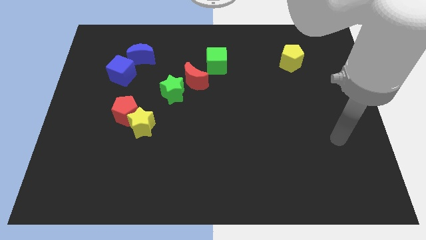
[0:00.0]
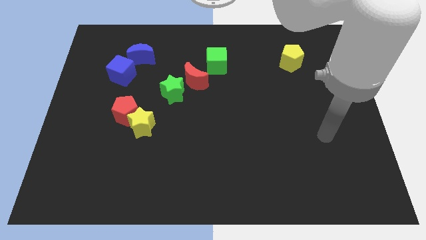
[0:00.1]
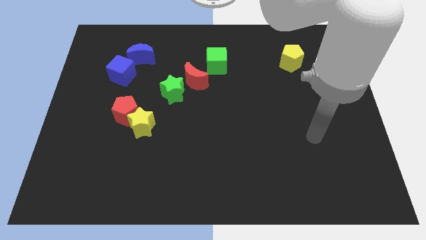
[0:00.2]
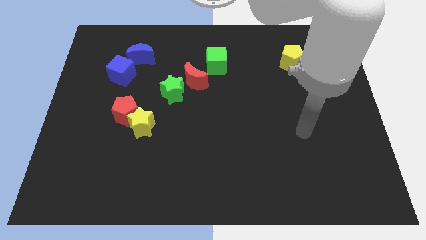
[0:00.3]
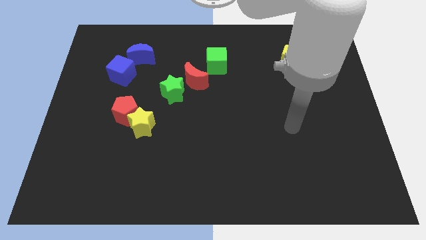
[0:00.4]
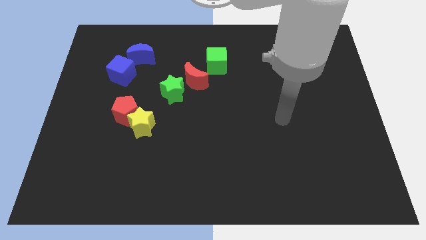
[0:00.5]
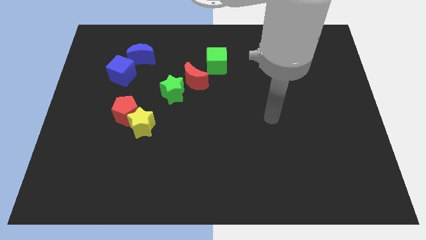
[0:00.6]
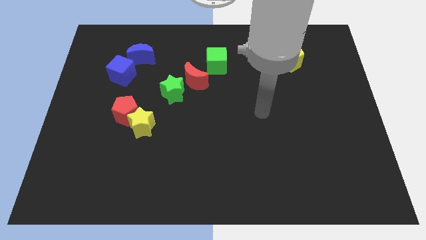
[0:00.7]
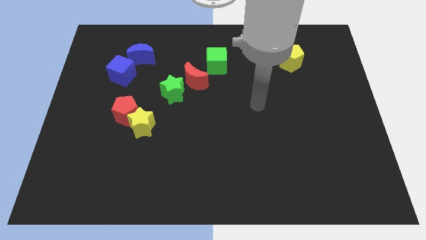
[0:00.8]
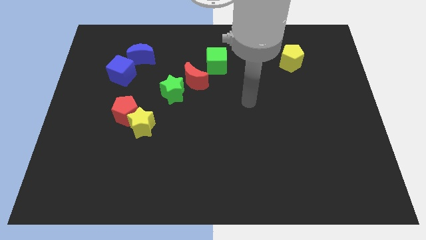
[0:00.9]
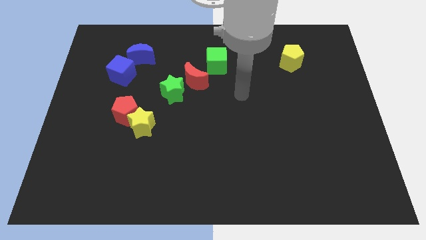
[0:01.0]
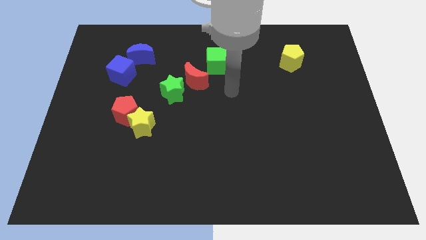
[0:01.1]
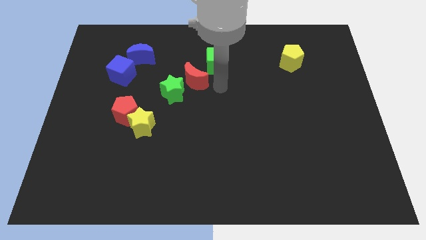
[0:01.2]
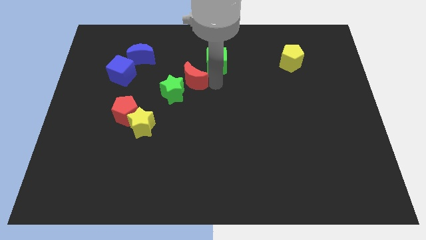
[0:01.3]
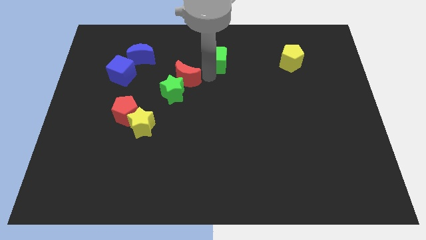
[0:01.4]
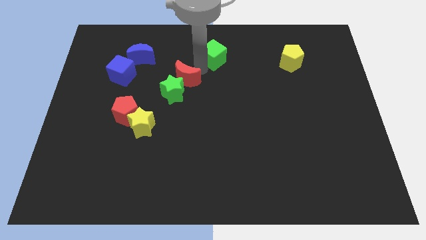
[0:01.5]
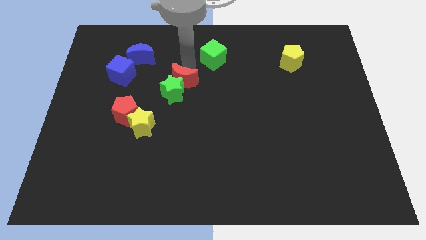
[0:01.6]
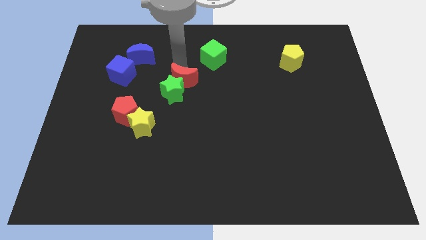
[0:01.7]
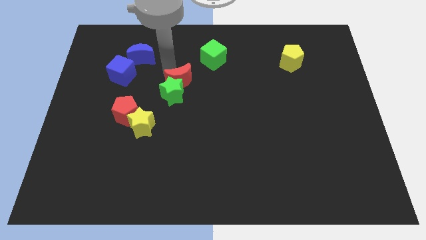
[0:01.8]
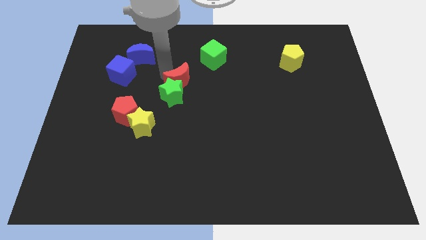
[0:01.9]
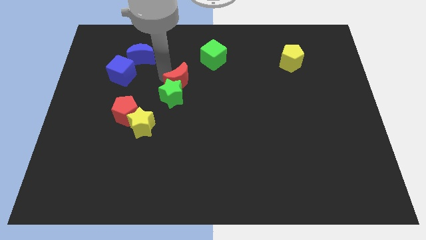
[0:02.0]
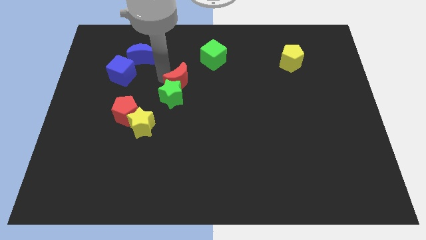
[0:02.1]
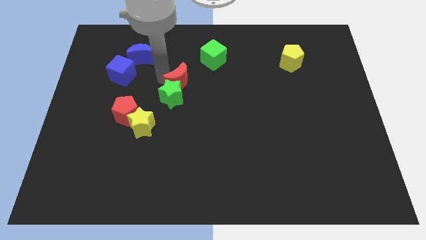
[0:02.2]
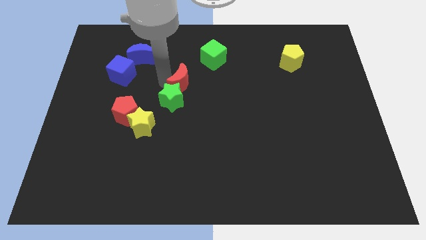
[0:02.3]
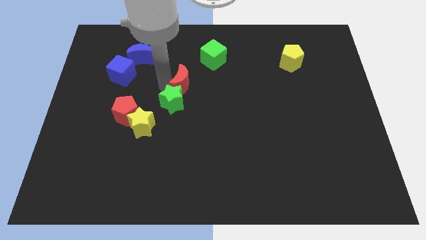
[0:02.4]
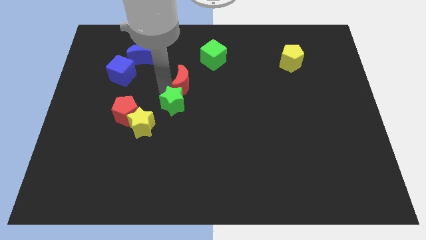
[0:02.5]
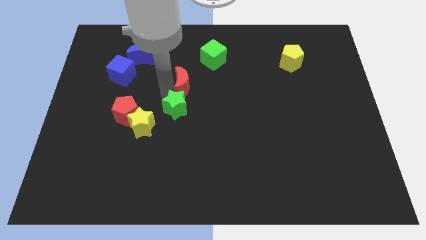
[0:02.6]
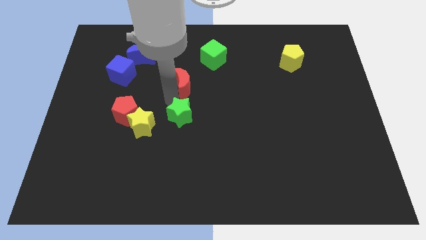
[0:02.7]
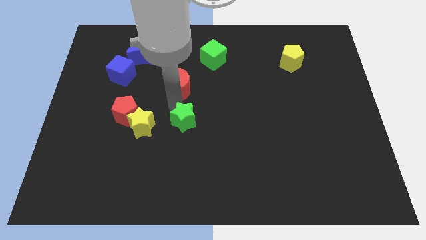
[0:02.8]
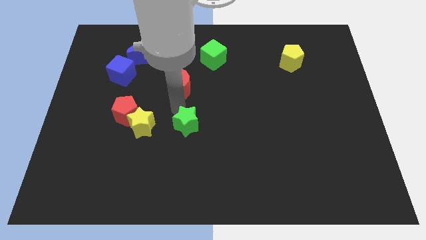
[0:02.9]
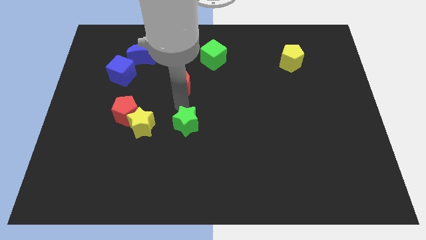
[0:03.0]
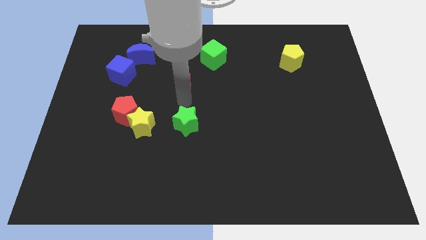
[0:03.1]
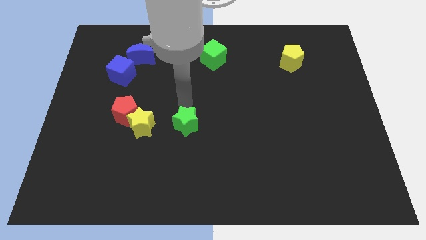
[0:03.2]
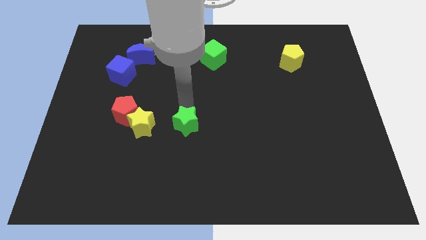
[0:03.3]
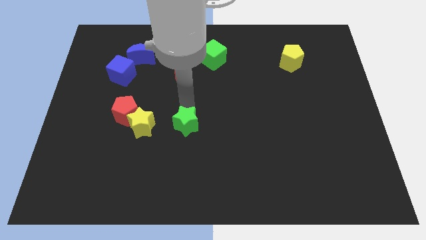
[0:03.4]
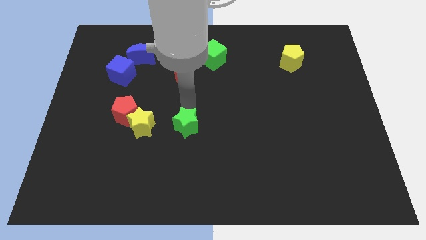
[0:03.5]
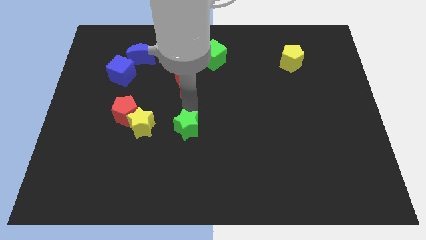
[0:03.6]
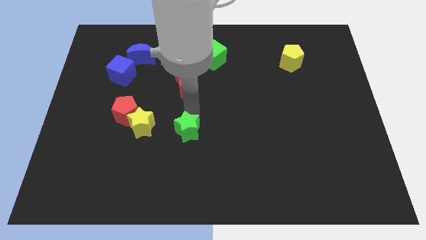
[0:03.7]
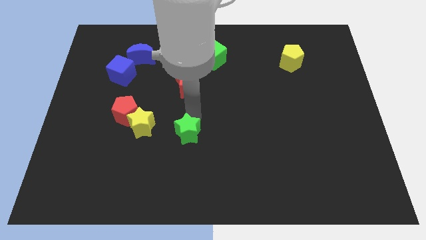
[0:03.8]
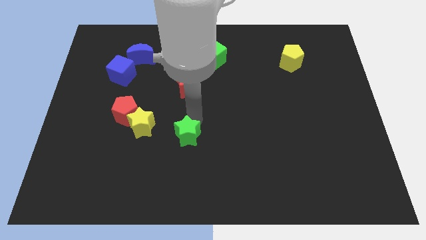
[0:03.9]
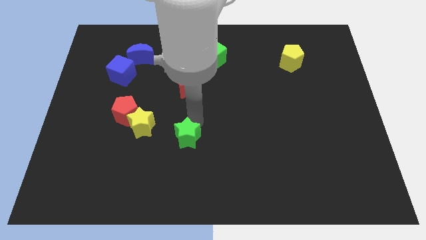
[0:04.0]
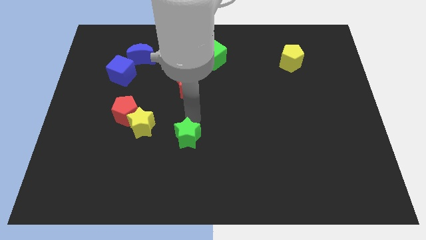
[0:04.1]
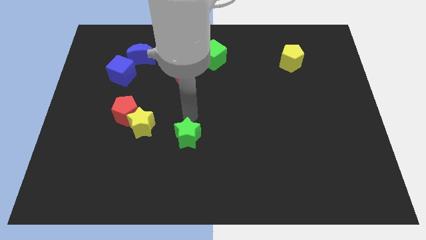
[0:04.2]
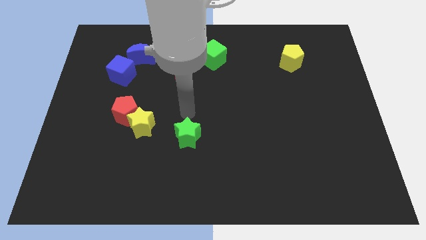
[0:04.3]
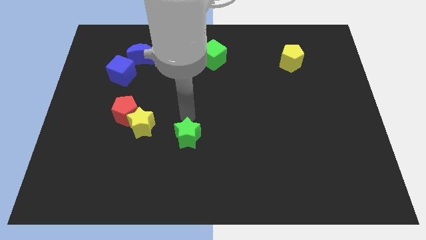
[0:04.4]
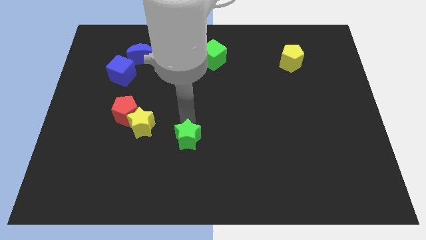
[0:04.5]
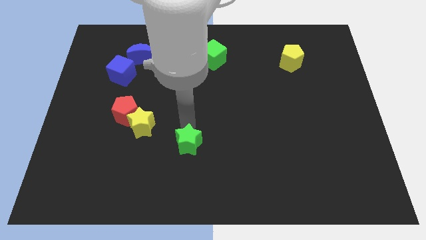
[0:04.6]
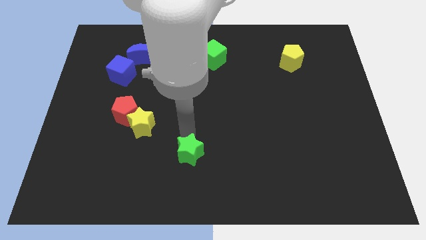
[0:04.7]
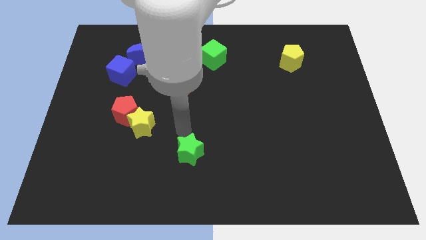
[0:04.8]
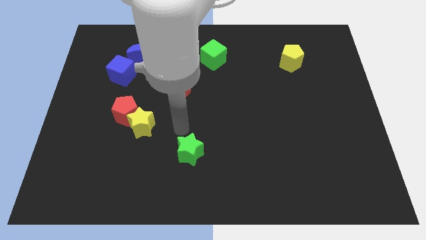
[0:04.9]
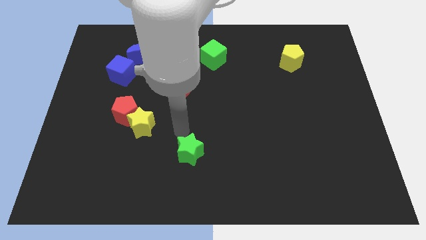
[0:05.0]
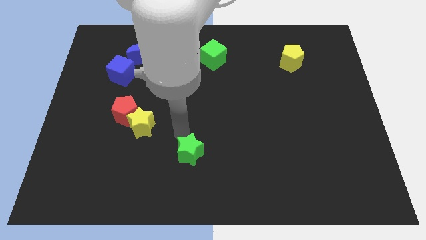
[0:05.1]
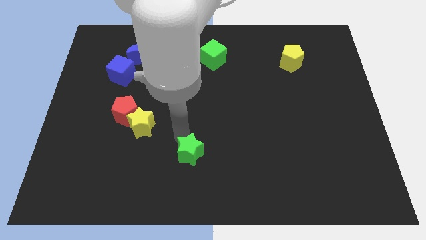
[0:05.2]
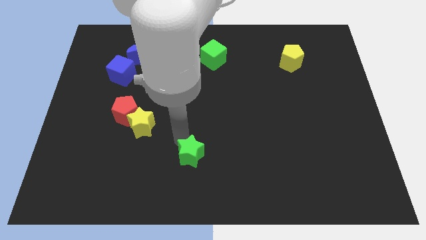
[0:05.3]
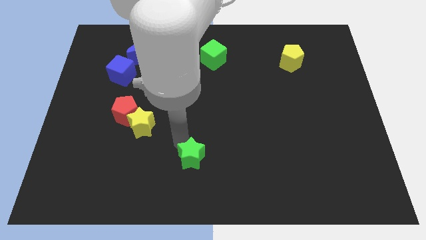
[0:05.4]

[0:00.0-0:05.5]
push the green star to the bottom side

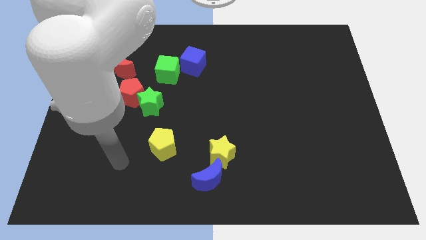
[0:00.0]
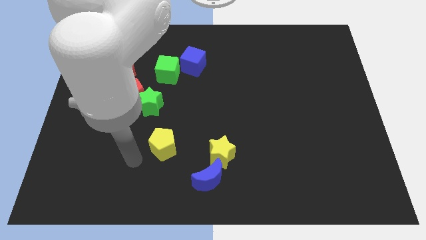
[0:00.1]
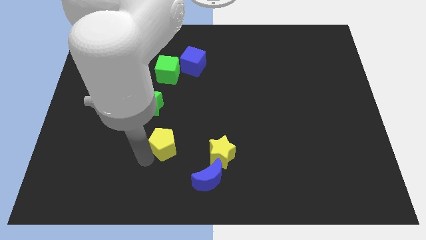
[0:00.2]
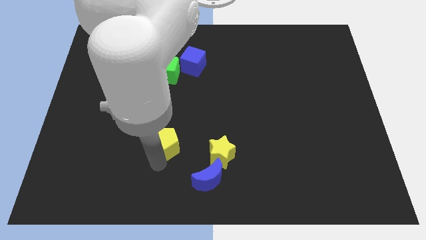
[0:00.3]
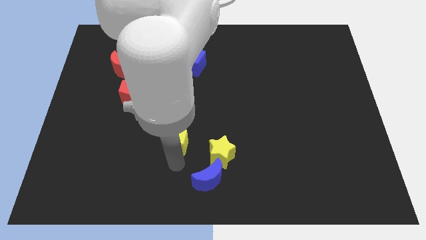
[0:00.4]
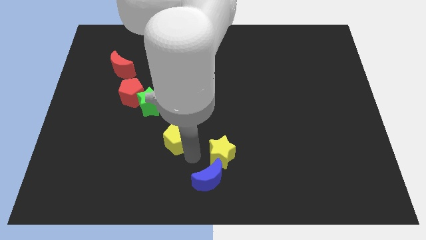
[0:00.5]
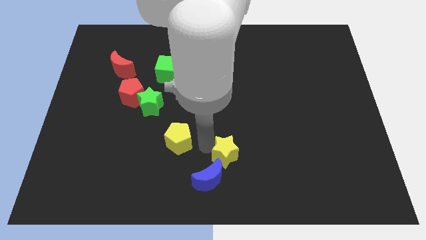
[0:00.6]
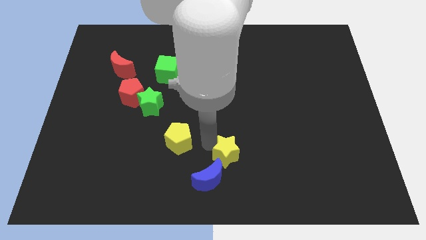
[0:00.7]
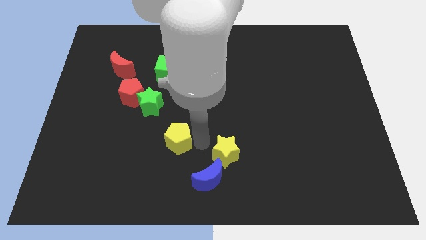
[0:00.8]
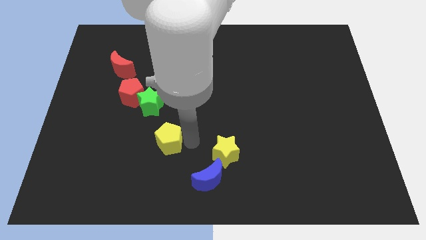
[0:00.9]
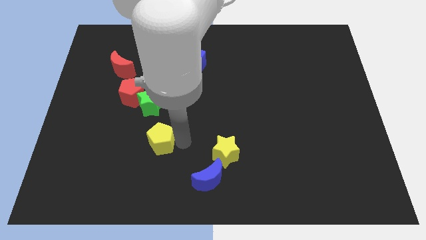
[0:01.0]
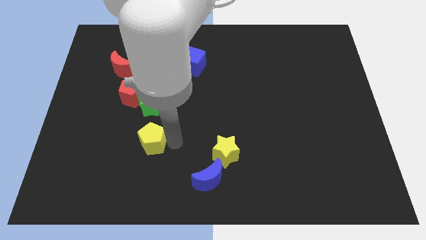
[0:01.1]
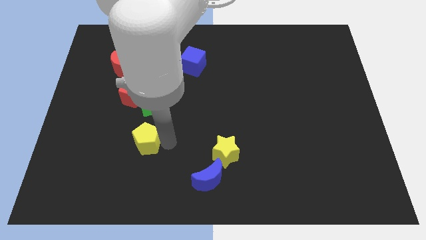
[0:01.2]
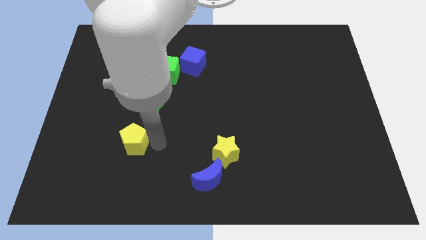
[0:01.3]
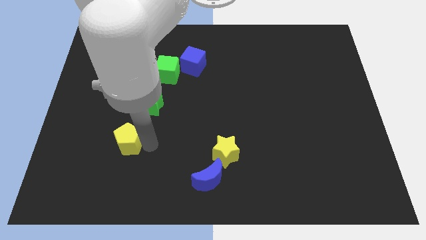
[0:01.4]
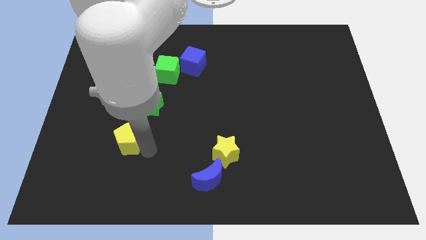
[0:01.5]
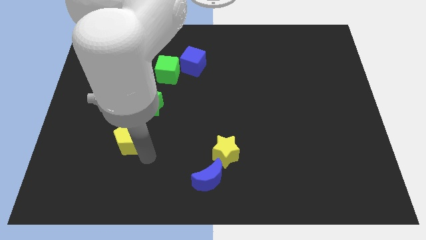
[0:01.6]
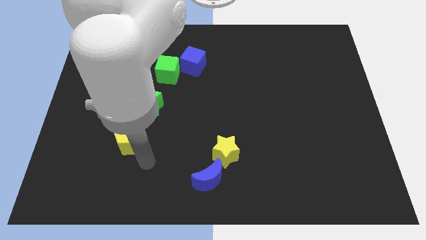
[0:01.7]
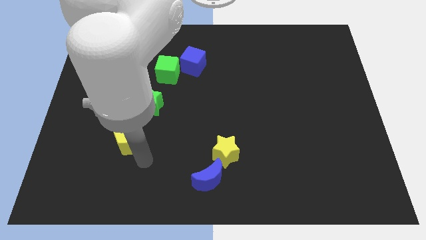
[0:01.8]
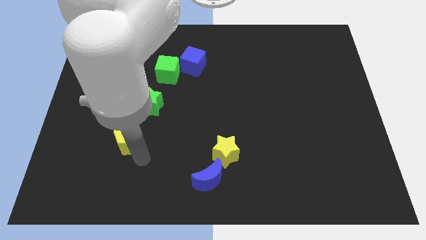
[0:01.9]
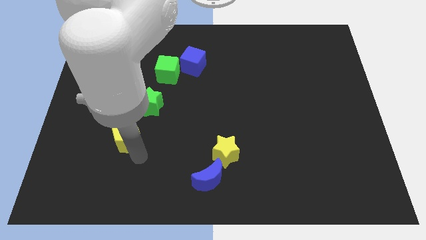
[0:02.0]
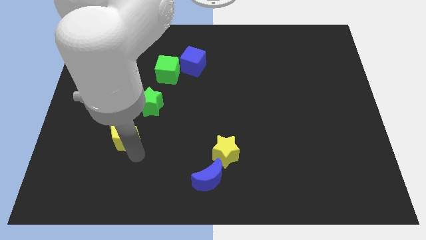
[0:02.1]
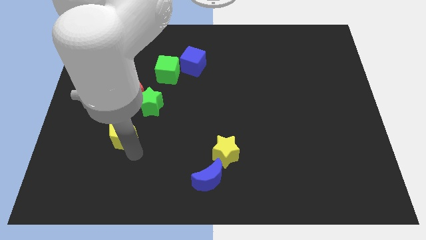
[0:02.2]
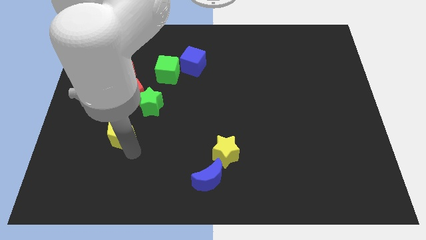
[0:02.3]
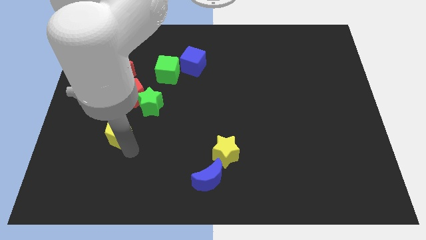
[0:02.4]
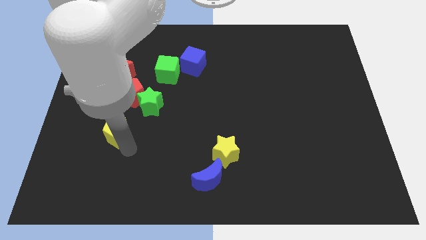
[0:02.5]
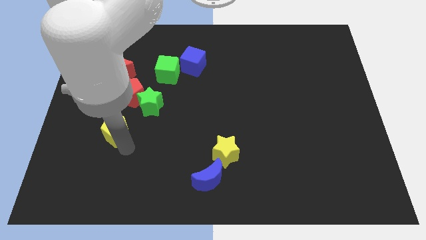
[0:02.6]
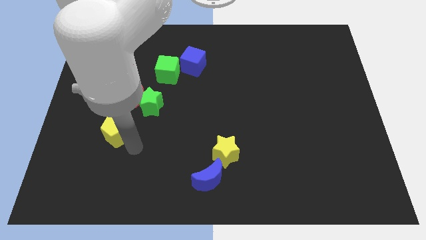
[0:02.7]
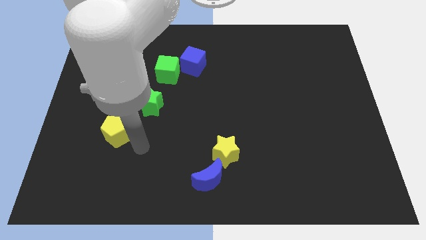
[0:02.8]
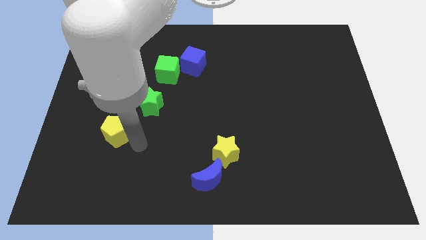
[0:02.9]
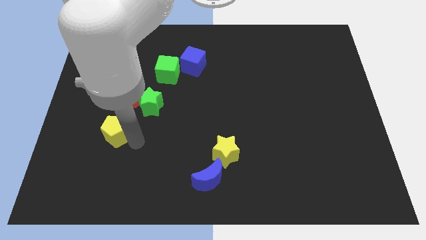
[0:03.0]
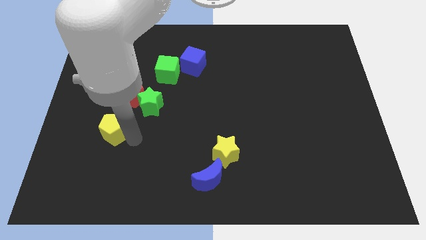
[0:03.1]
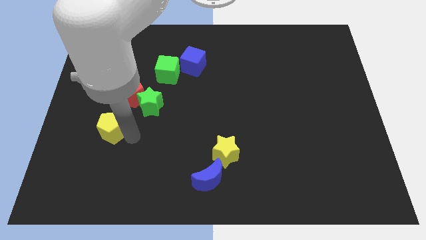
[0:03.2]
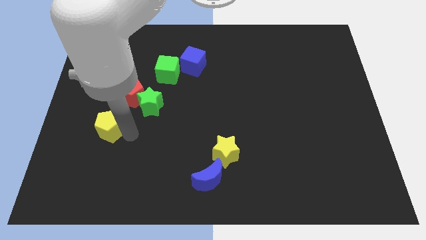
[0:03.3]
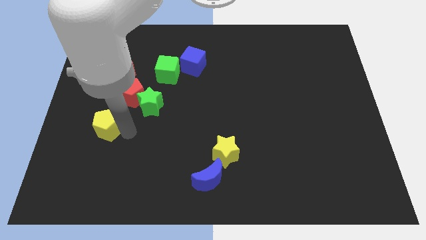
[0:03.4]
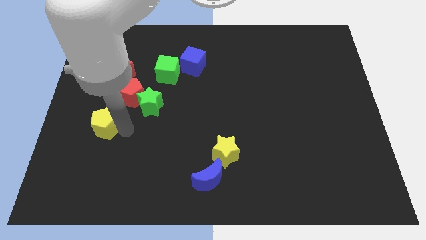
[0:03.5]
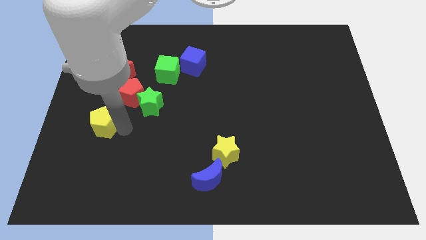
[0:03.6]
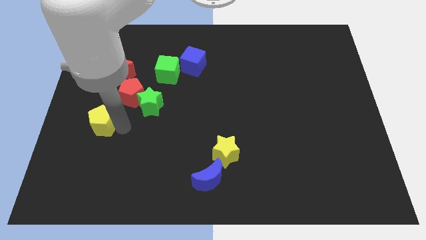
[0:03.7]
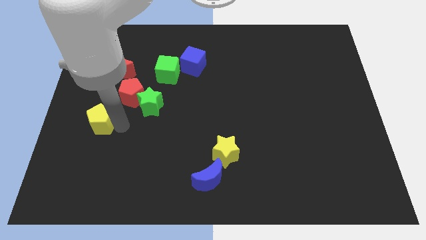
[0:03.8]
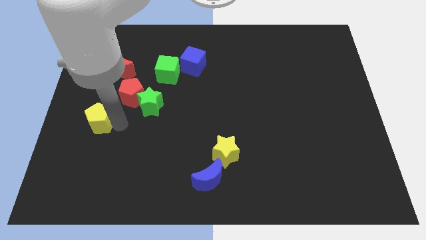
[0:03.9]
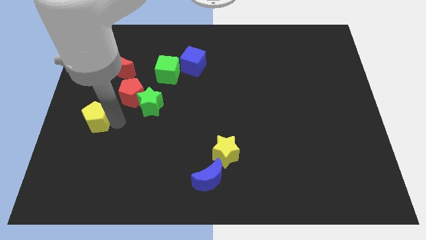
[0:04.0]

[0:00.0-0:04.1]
put the yellow pentagon to the left side
